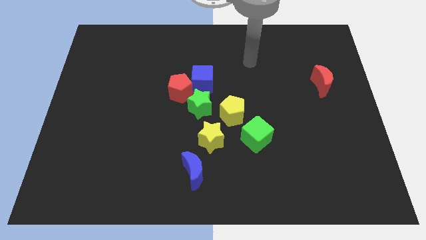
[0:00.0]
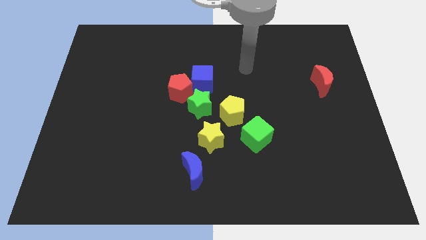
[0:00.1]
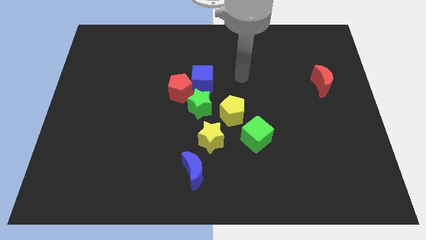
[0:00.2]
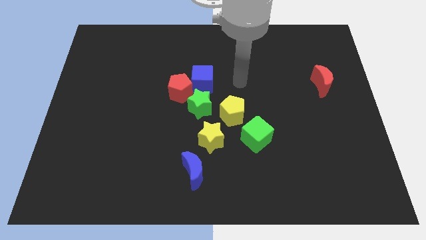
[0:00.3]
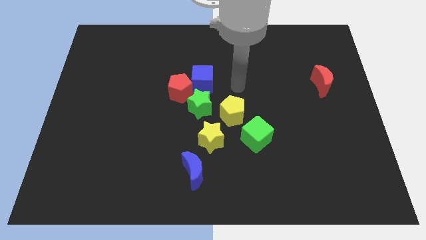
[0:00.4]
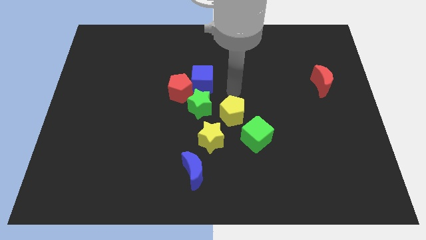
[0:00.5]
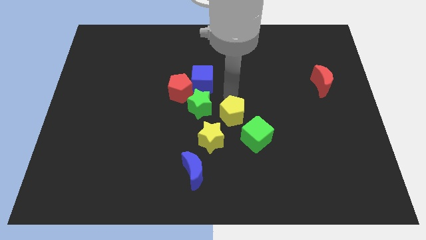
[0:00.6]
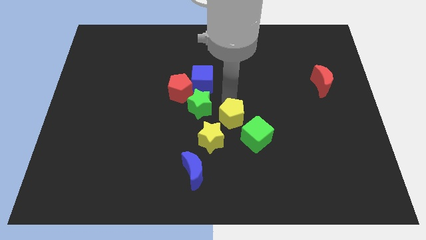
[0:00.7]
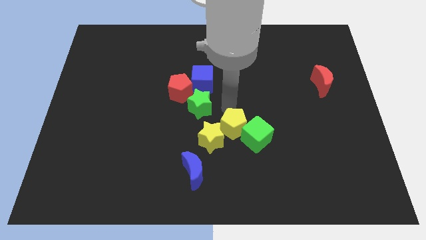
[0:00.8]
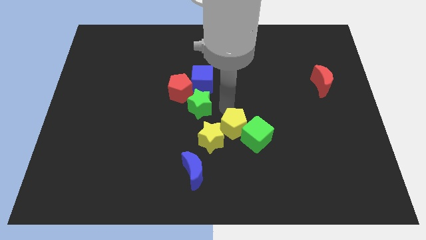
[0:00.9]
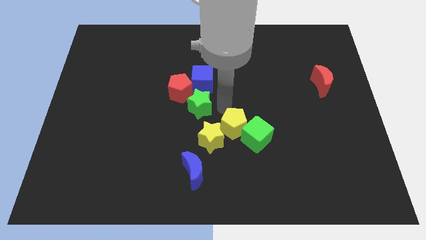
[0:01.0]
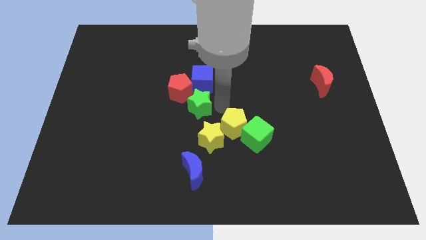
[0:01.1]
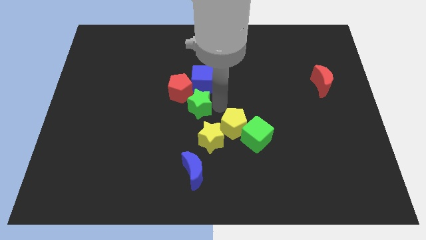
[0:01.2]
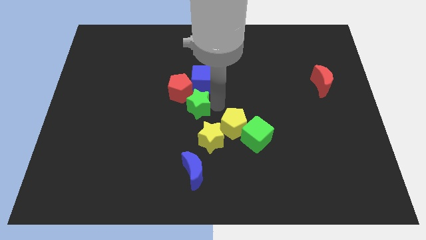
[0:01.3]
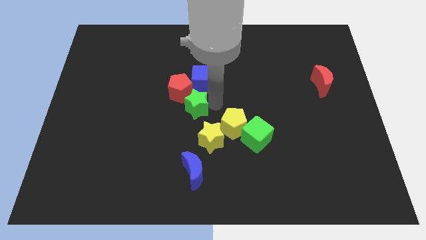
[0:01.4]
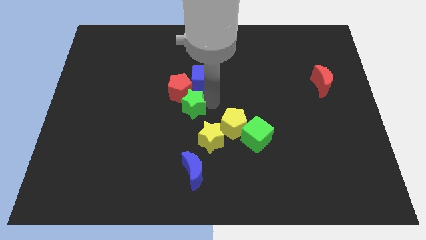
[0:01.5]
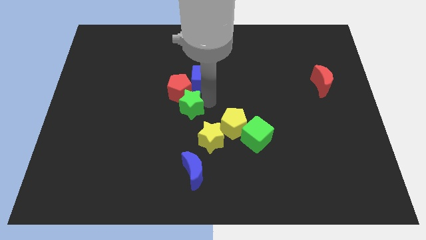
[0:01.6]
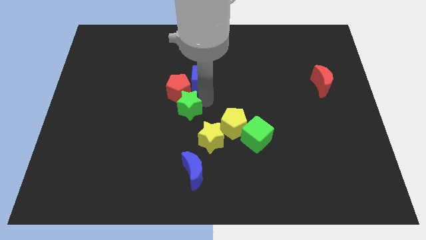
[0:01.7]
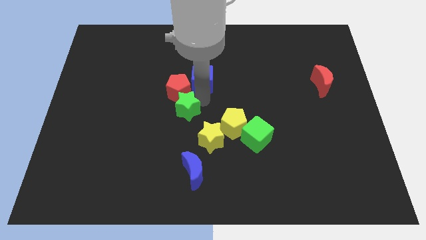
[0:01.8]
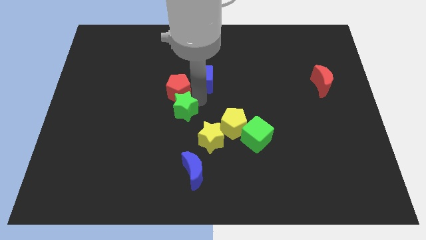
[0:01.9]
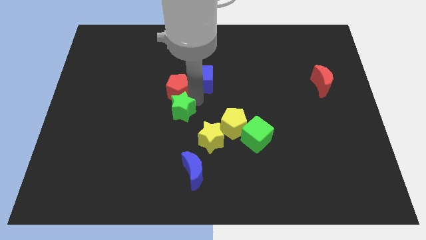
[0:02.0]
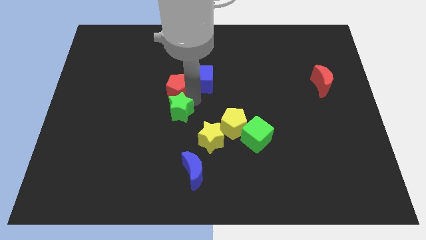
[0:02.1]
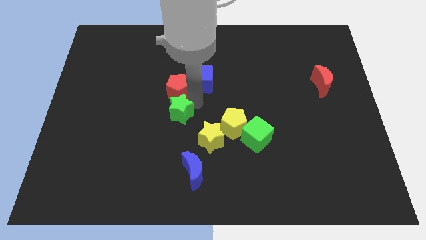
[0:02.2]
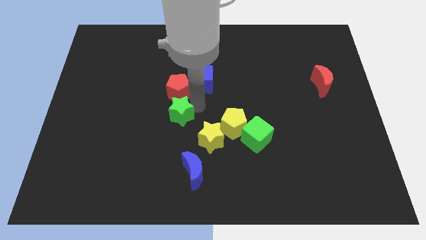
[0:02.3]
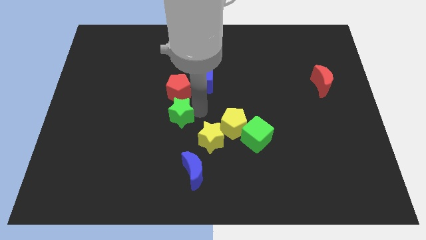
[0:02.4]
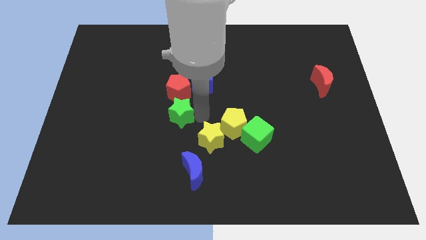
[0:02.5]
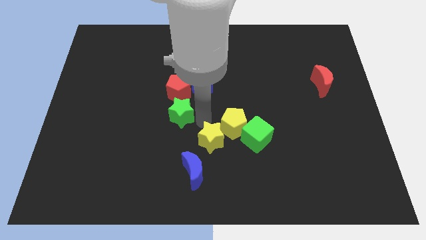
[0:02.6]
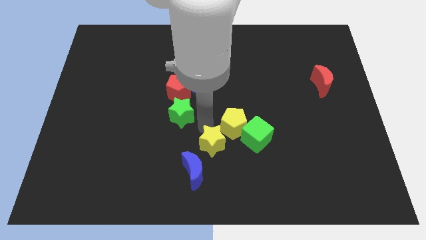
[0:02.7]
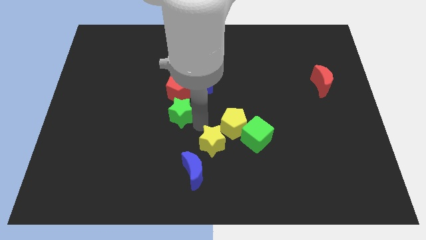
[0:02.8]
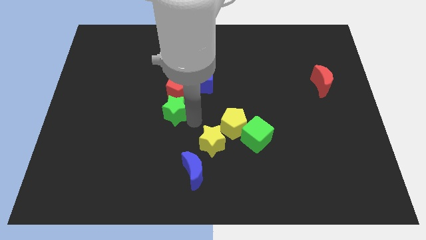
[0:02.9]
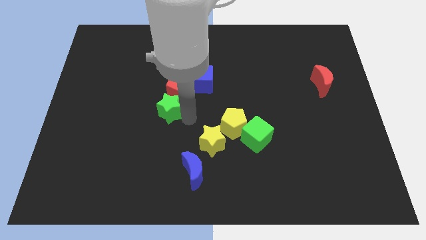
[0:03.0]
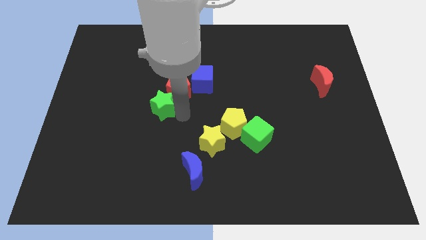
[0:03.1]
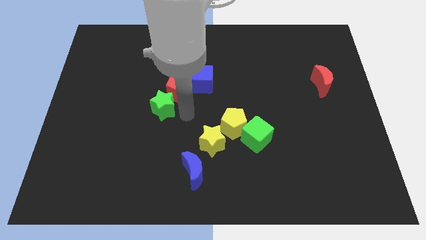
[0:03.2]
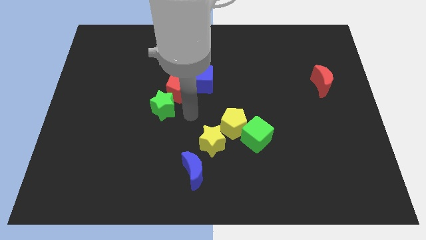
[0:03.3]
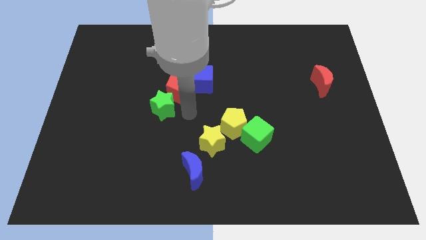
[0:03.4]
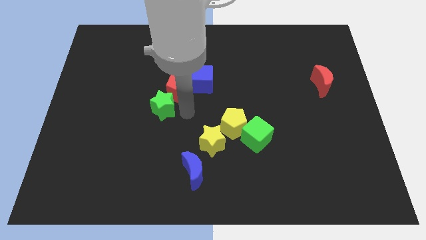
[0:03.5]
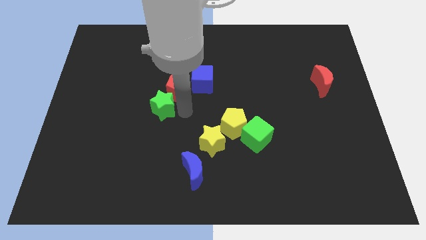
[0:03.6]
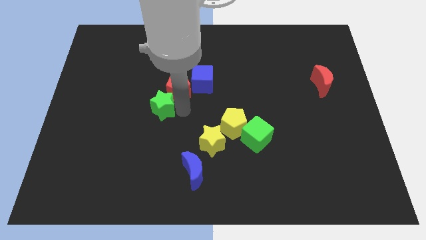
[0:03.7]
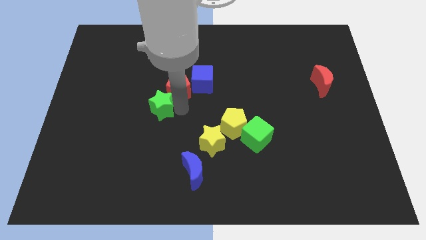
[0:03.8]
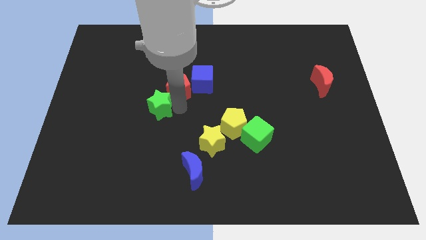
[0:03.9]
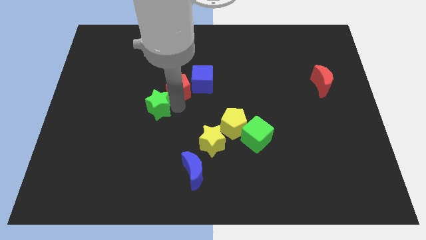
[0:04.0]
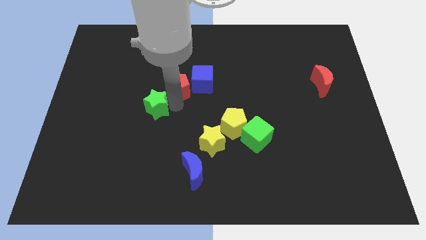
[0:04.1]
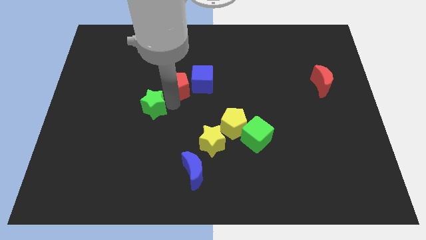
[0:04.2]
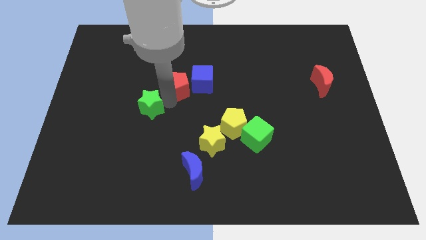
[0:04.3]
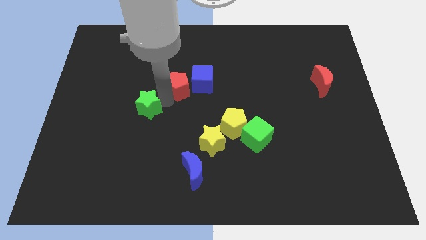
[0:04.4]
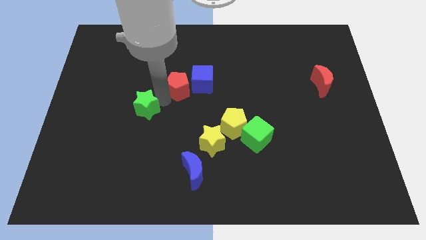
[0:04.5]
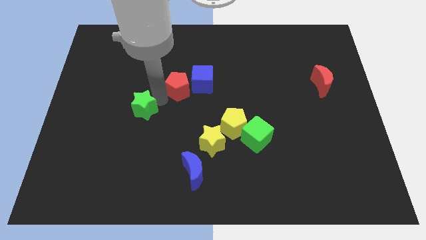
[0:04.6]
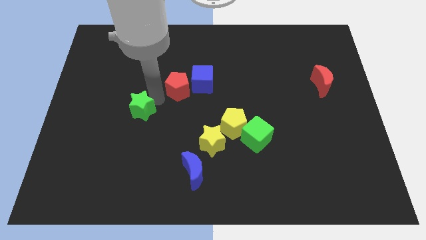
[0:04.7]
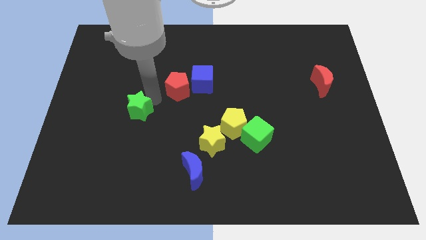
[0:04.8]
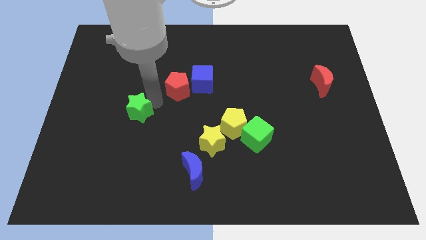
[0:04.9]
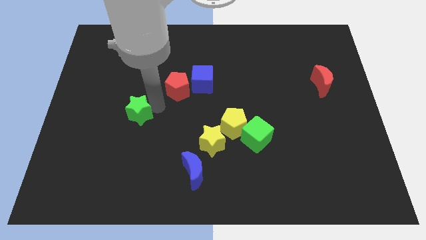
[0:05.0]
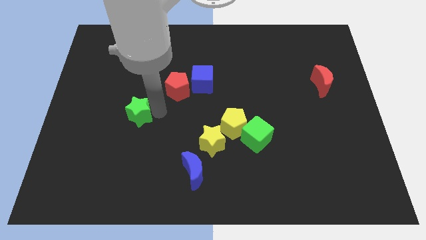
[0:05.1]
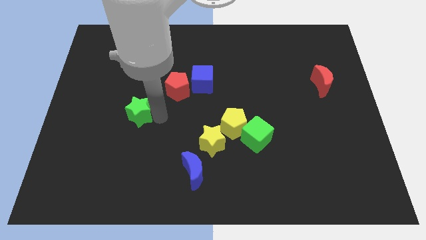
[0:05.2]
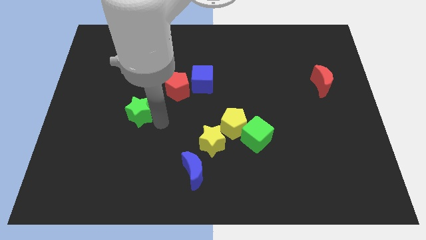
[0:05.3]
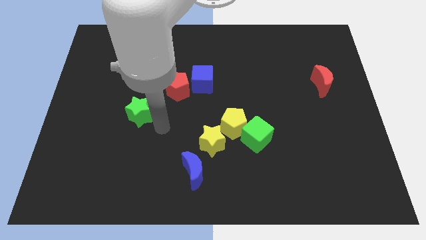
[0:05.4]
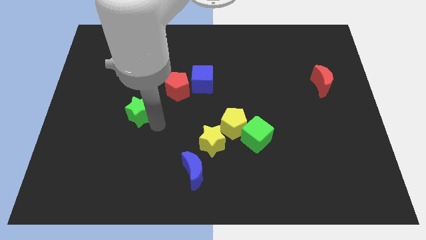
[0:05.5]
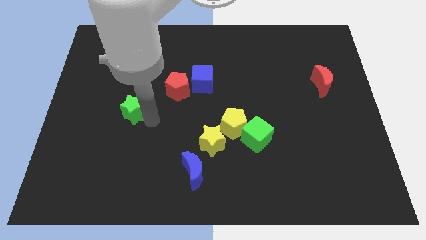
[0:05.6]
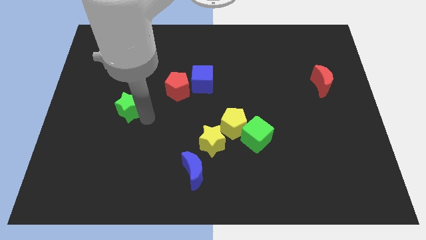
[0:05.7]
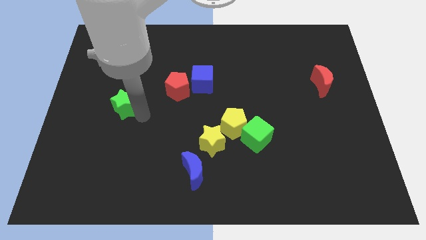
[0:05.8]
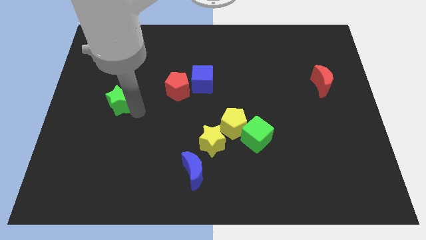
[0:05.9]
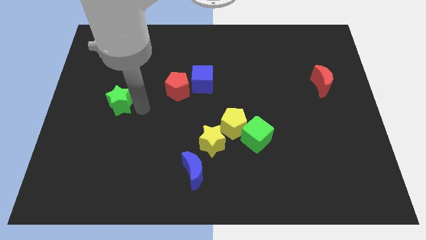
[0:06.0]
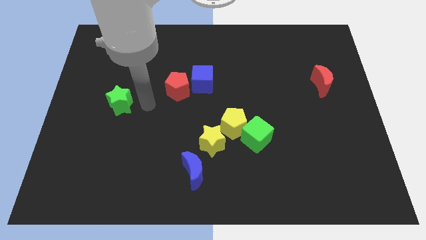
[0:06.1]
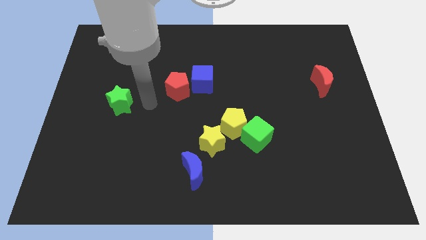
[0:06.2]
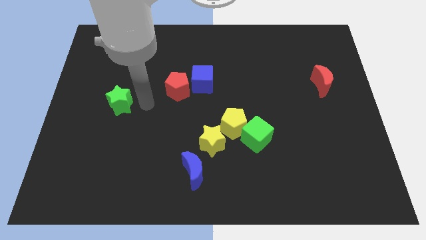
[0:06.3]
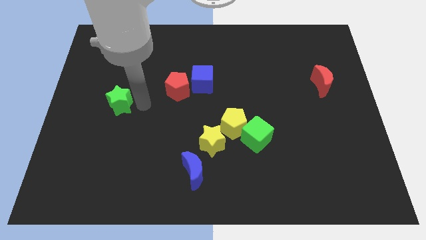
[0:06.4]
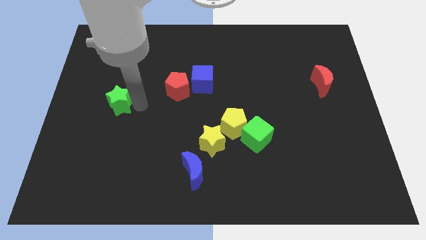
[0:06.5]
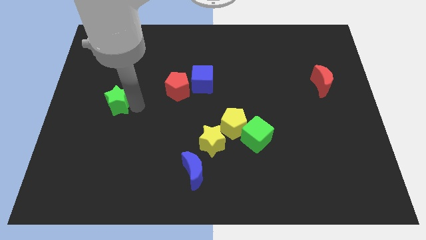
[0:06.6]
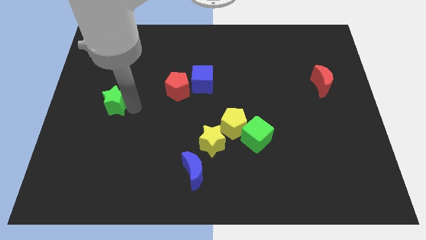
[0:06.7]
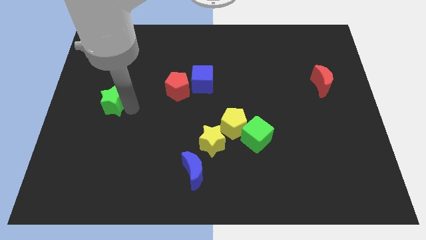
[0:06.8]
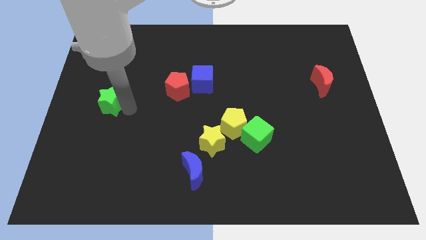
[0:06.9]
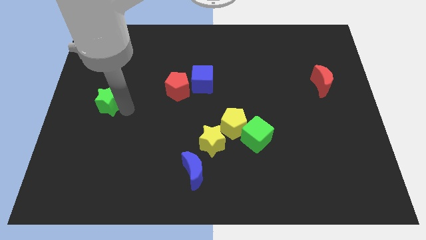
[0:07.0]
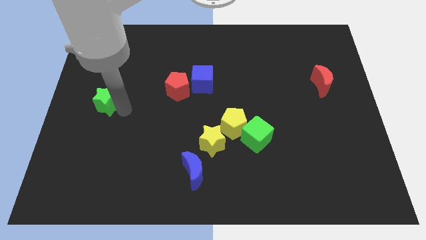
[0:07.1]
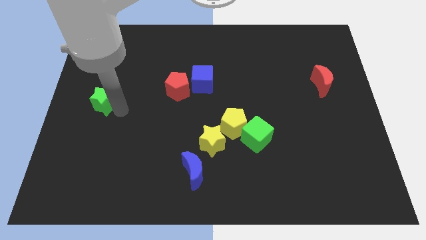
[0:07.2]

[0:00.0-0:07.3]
move the green star to the left side

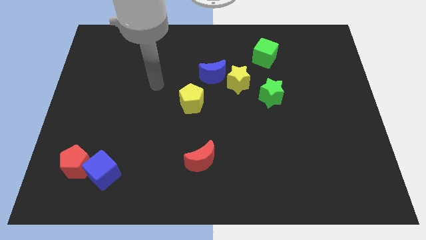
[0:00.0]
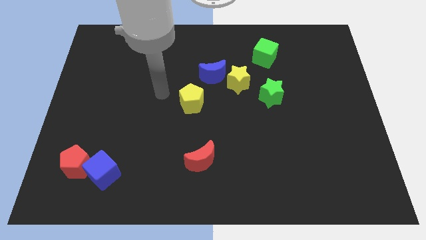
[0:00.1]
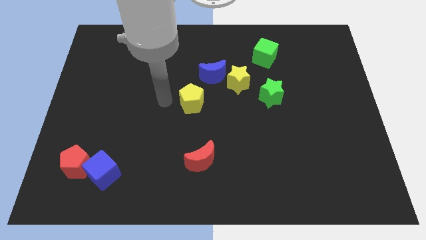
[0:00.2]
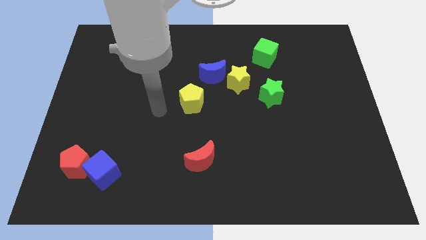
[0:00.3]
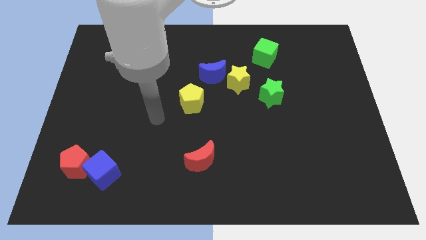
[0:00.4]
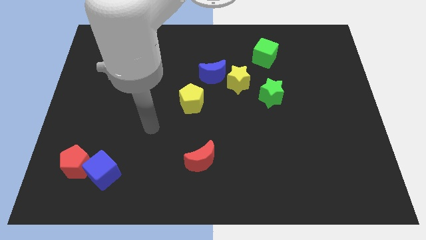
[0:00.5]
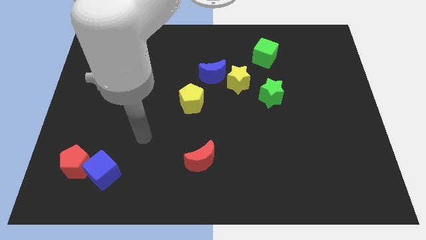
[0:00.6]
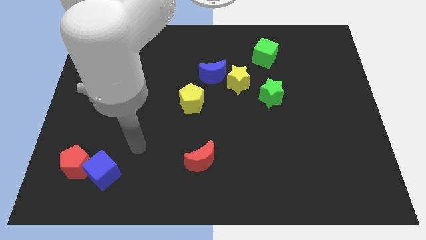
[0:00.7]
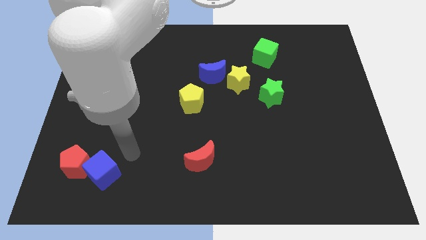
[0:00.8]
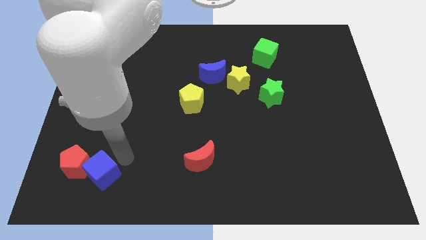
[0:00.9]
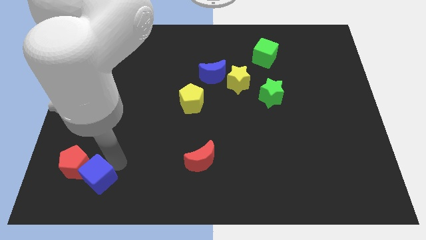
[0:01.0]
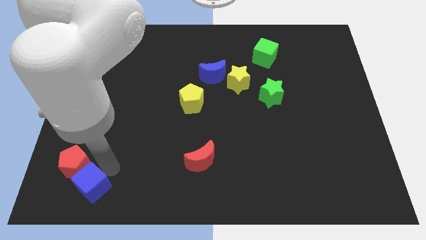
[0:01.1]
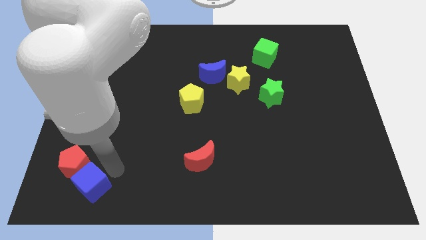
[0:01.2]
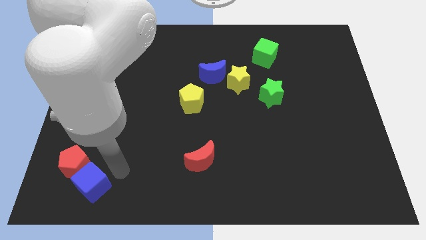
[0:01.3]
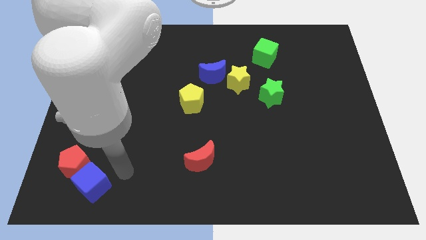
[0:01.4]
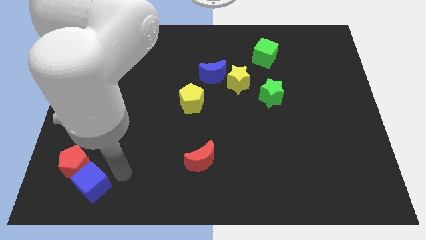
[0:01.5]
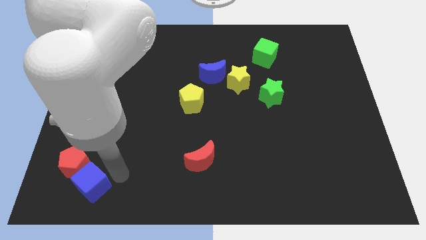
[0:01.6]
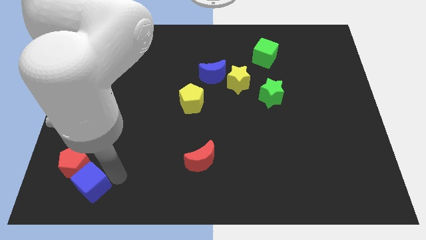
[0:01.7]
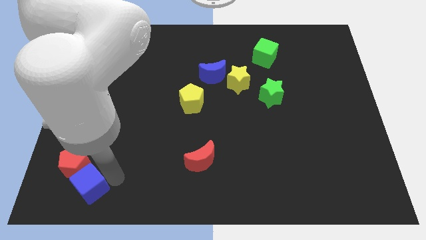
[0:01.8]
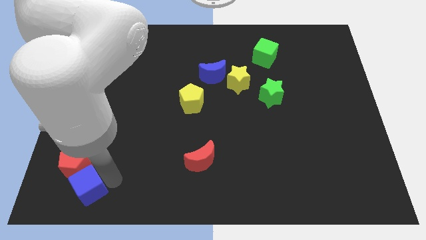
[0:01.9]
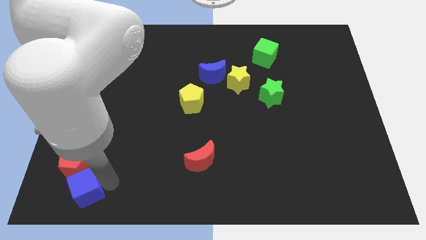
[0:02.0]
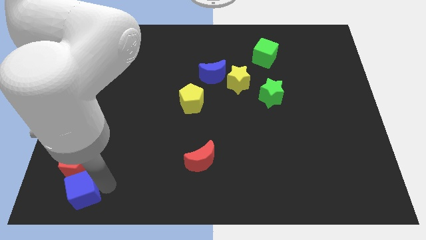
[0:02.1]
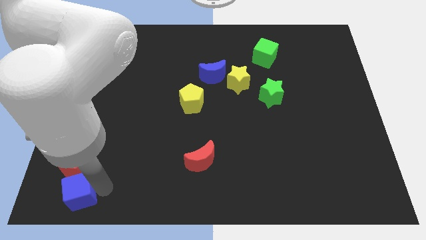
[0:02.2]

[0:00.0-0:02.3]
slide the blue cube to the bottom left of the board
